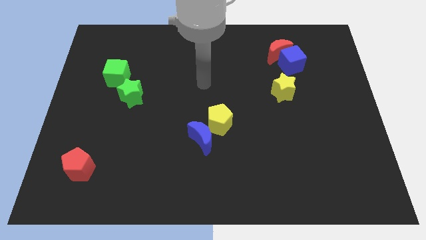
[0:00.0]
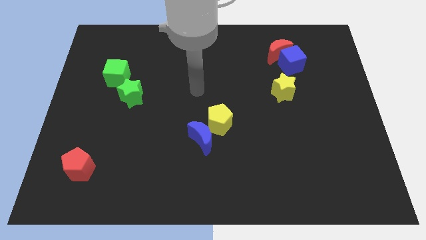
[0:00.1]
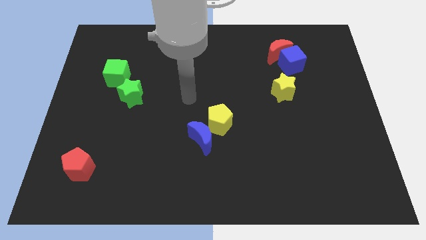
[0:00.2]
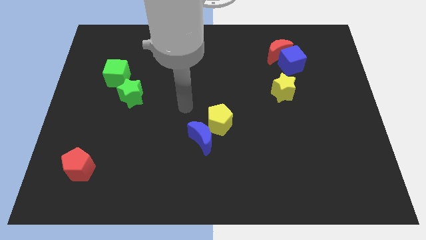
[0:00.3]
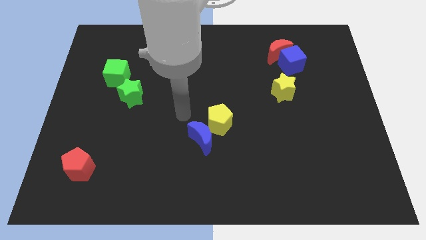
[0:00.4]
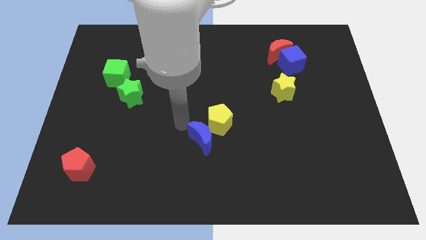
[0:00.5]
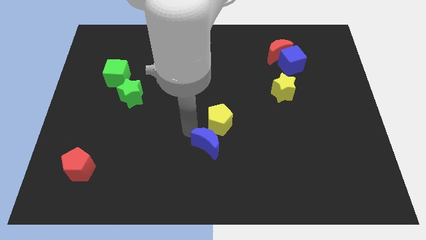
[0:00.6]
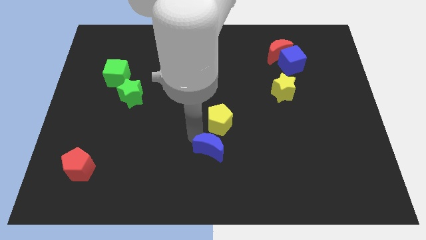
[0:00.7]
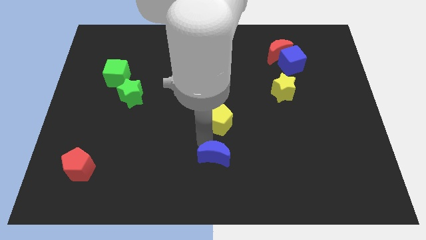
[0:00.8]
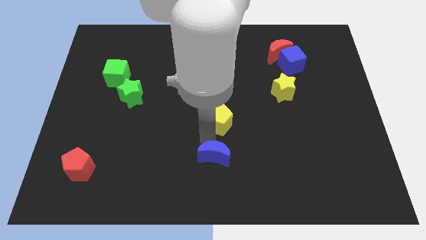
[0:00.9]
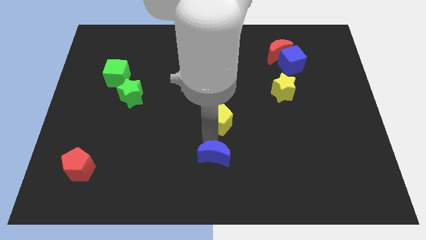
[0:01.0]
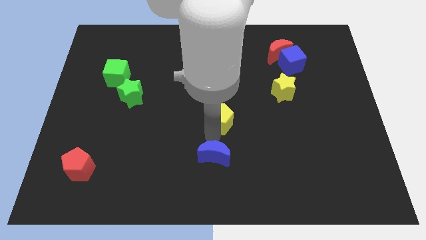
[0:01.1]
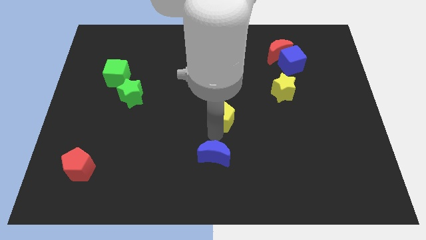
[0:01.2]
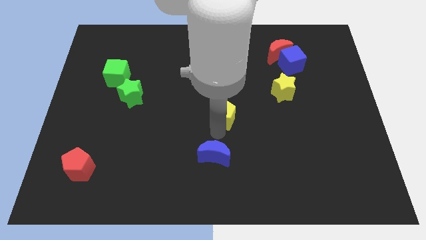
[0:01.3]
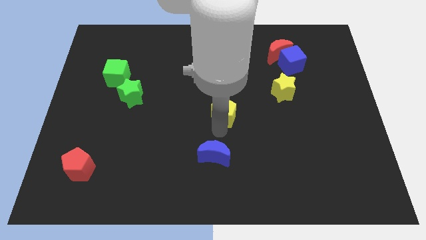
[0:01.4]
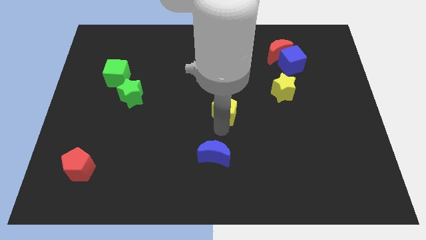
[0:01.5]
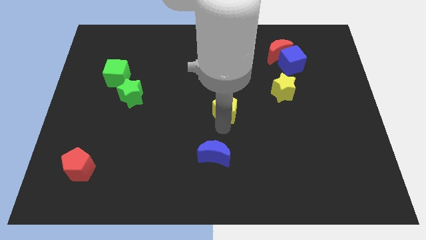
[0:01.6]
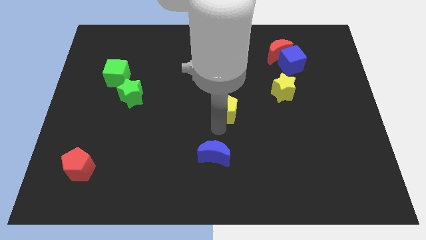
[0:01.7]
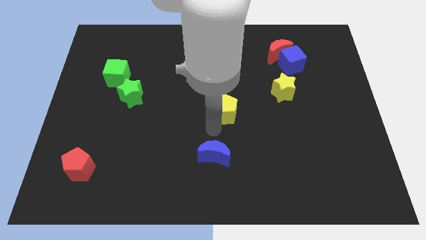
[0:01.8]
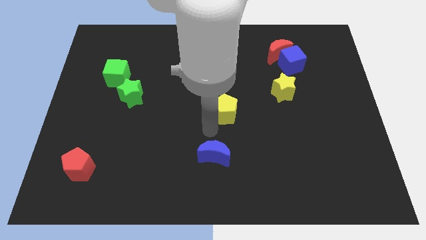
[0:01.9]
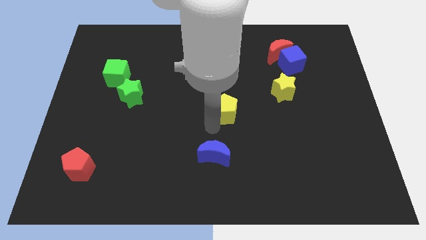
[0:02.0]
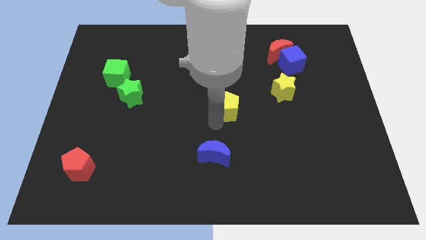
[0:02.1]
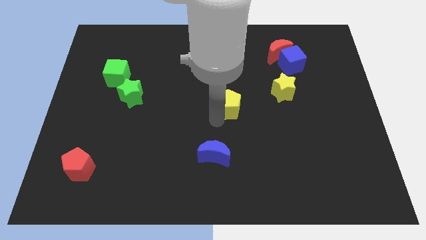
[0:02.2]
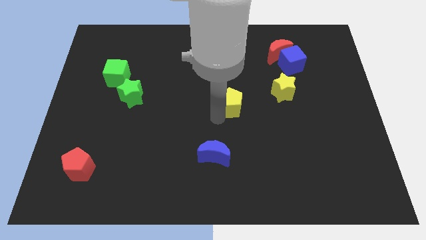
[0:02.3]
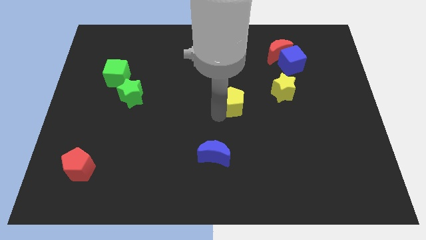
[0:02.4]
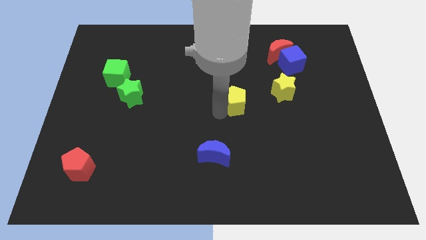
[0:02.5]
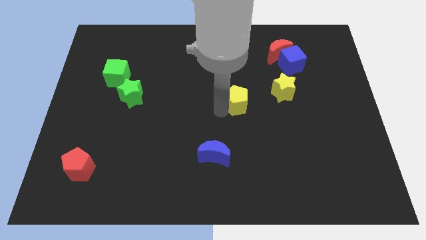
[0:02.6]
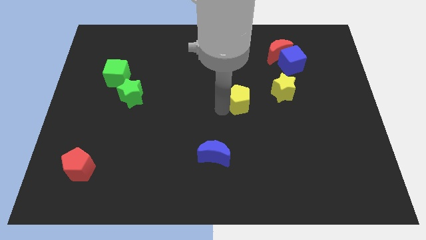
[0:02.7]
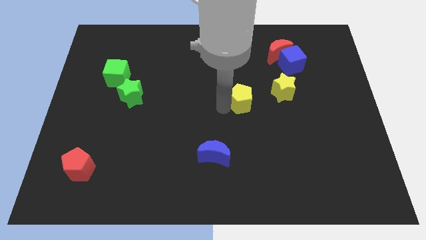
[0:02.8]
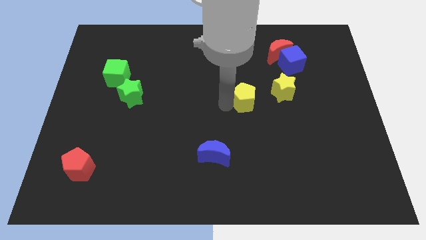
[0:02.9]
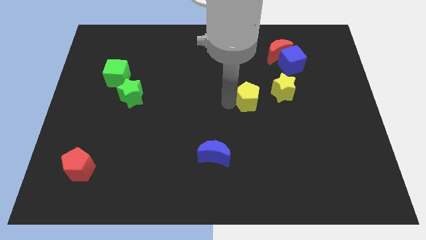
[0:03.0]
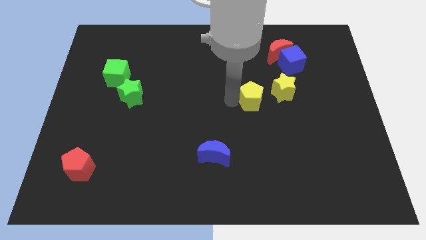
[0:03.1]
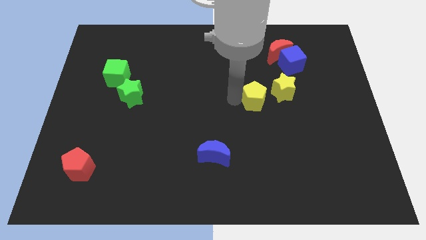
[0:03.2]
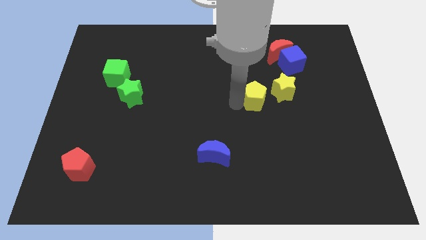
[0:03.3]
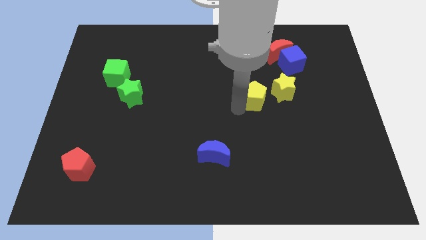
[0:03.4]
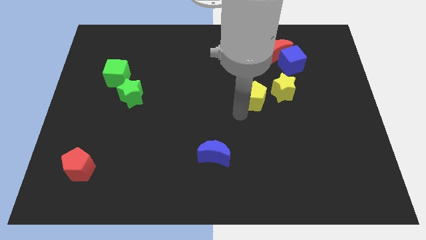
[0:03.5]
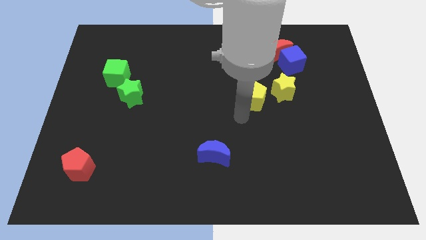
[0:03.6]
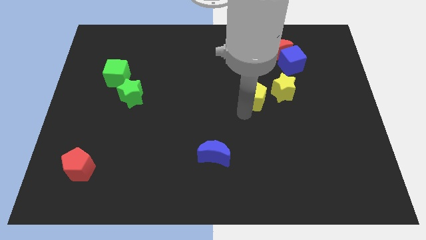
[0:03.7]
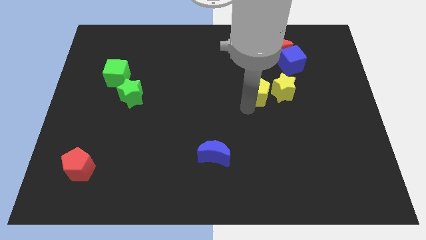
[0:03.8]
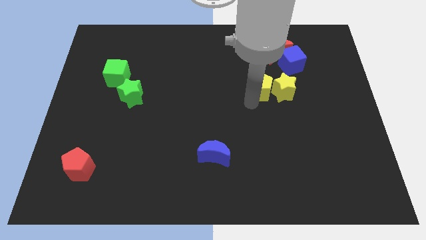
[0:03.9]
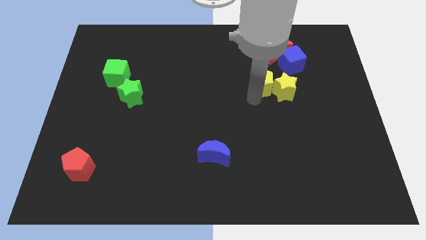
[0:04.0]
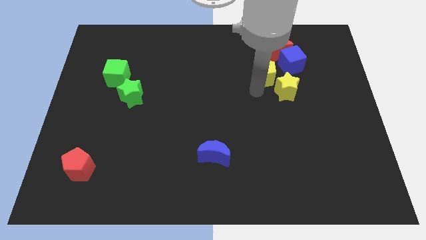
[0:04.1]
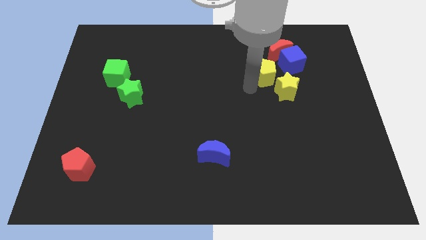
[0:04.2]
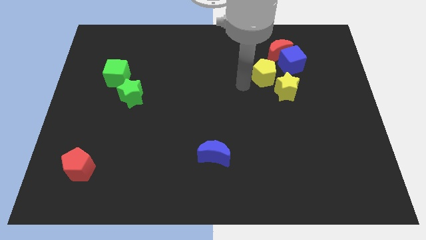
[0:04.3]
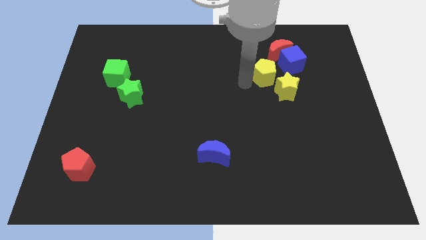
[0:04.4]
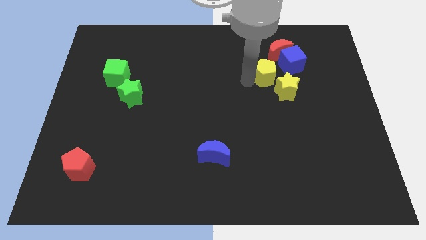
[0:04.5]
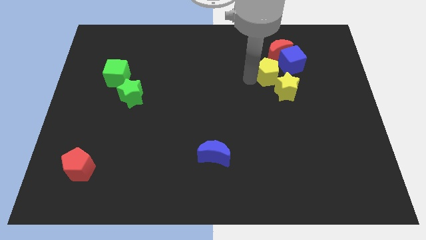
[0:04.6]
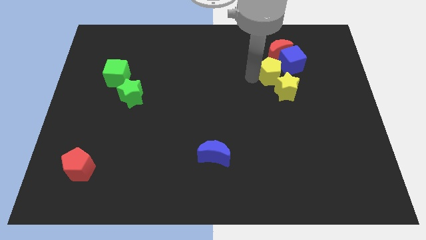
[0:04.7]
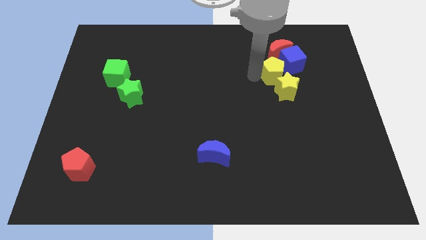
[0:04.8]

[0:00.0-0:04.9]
push the yellow pentagon to the blue cube

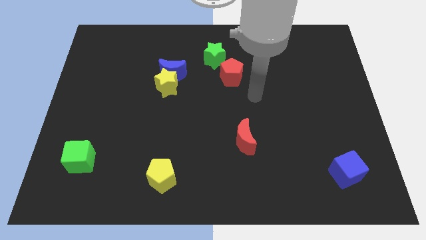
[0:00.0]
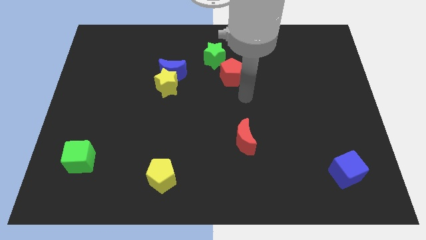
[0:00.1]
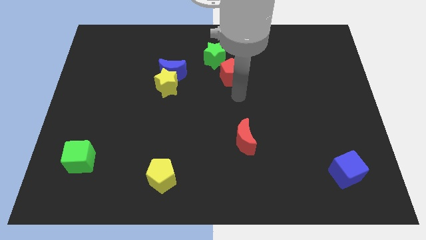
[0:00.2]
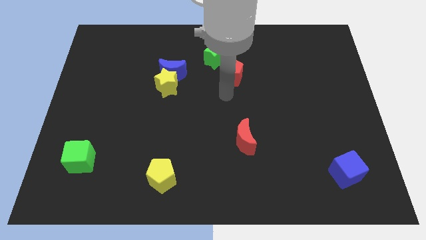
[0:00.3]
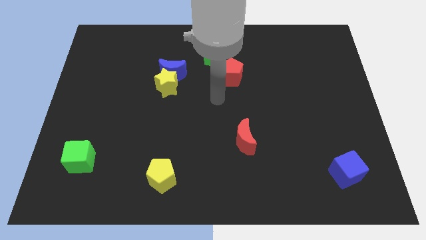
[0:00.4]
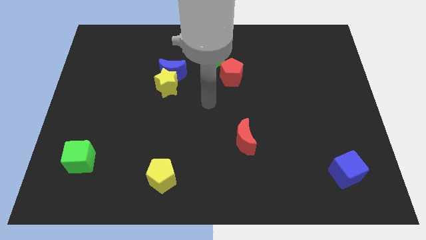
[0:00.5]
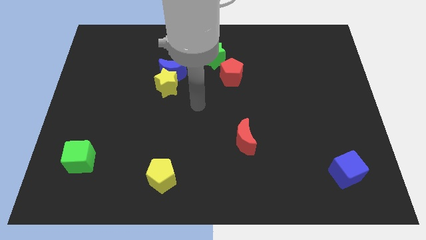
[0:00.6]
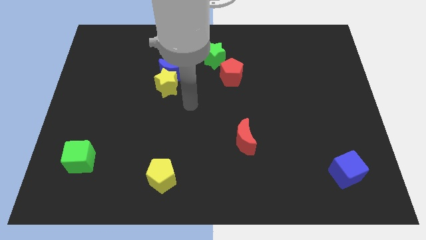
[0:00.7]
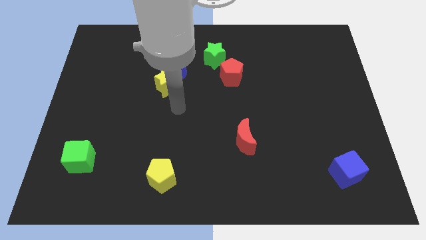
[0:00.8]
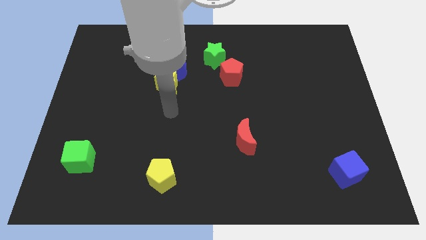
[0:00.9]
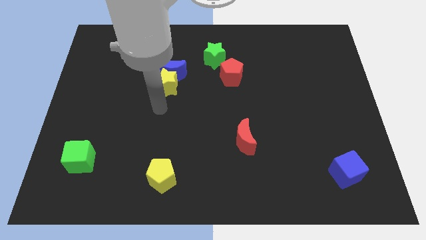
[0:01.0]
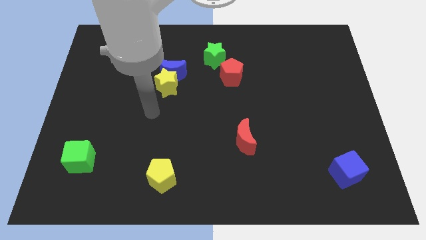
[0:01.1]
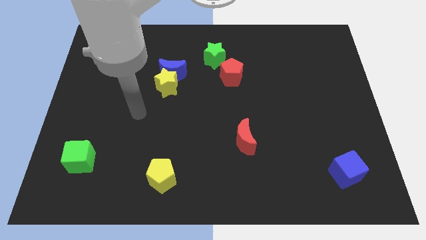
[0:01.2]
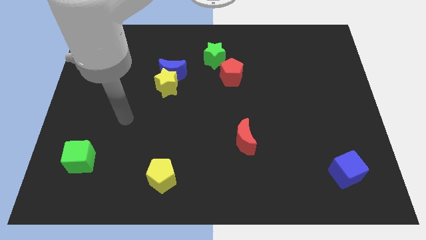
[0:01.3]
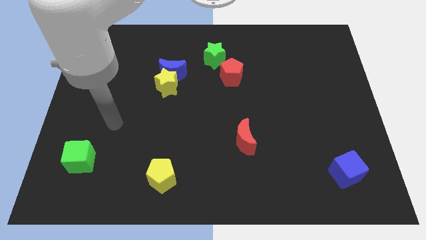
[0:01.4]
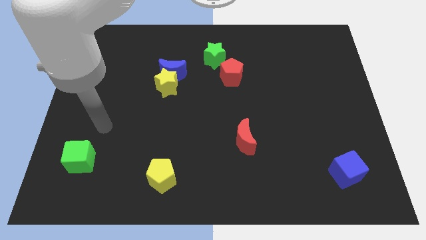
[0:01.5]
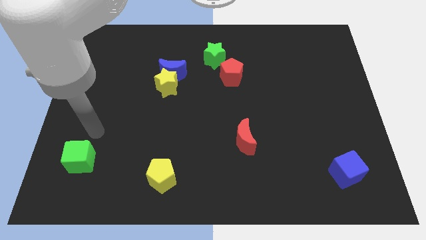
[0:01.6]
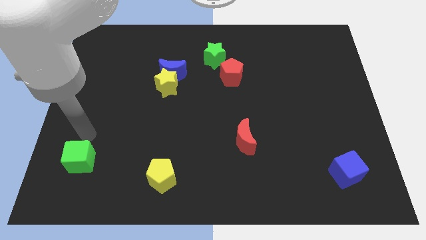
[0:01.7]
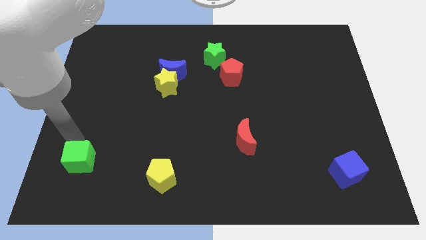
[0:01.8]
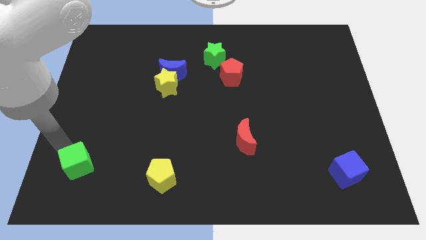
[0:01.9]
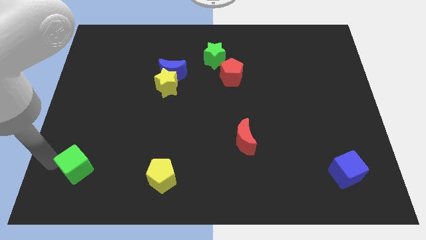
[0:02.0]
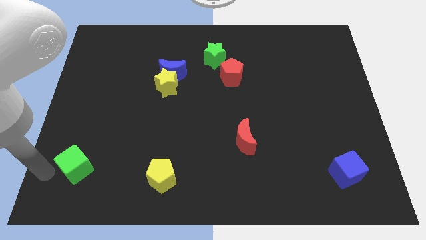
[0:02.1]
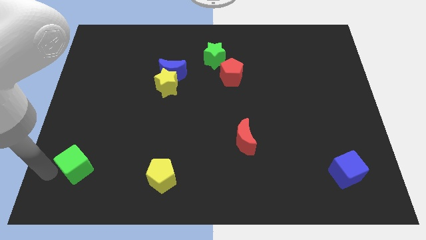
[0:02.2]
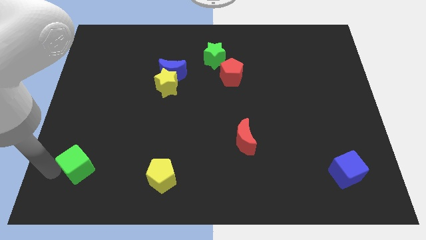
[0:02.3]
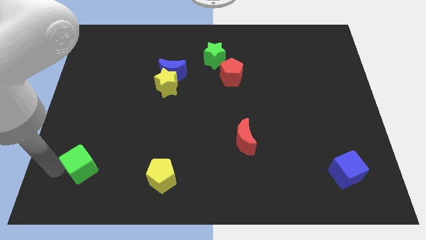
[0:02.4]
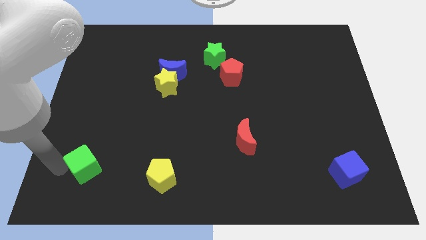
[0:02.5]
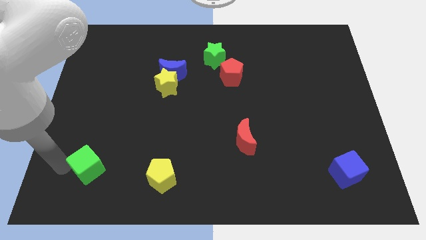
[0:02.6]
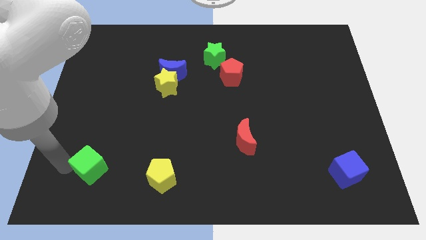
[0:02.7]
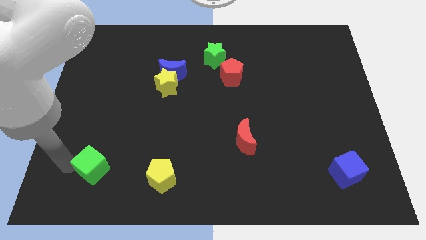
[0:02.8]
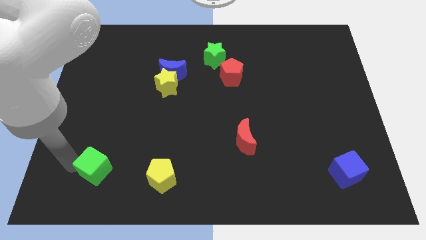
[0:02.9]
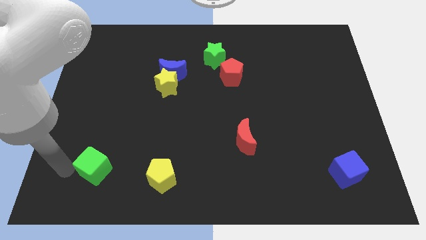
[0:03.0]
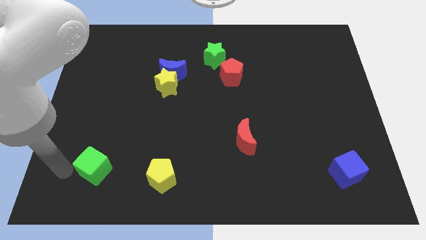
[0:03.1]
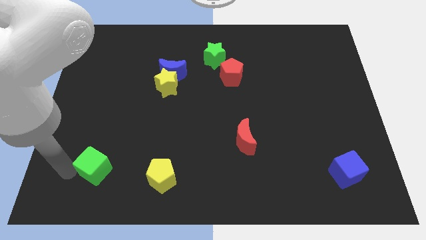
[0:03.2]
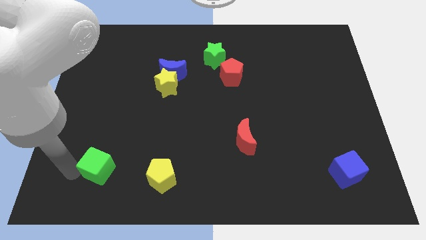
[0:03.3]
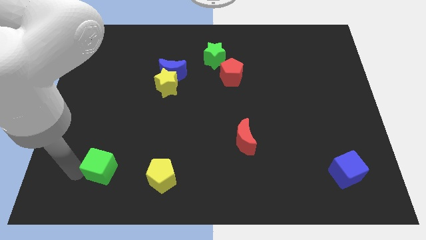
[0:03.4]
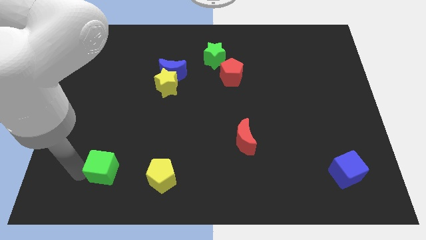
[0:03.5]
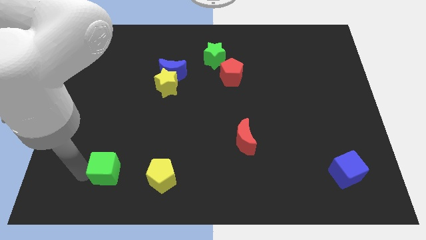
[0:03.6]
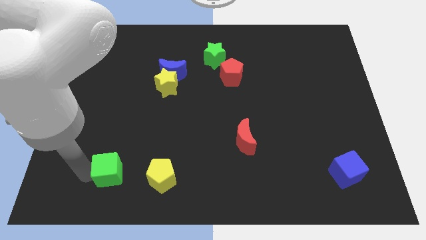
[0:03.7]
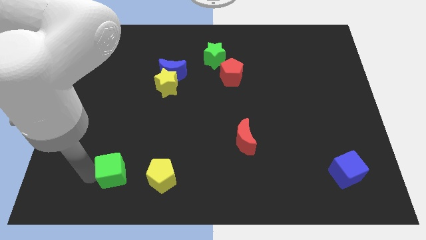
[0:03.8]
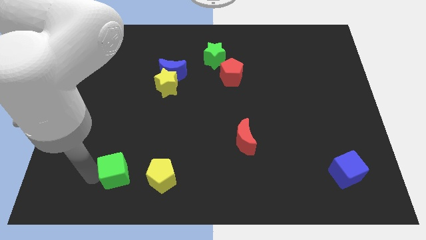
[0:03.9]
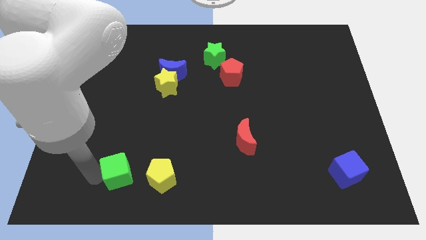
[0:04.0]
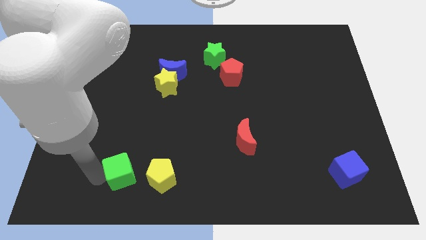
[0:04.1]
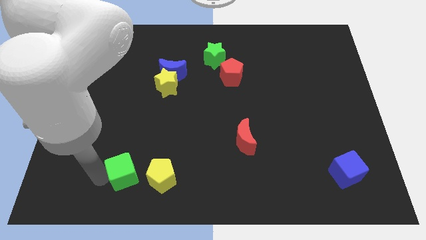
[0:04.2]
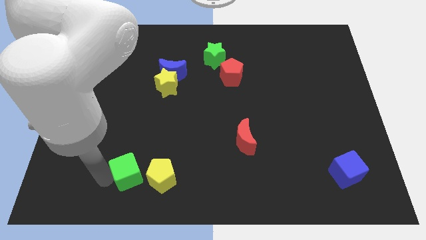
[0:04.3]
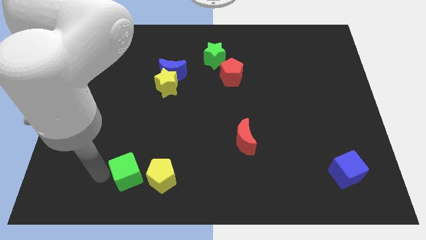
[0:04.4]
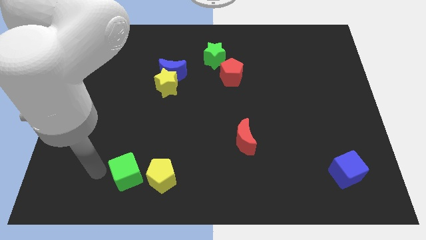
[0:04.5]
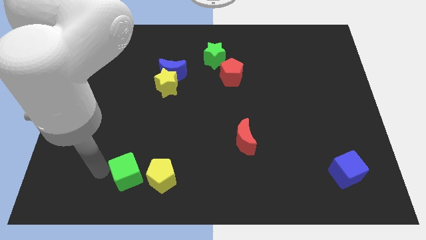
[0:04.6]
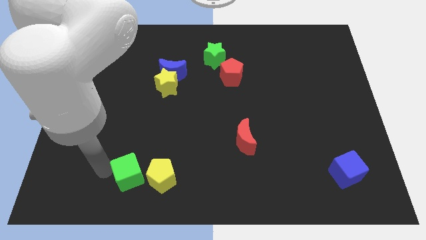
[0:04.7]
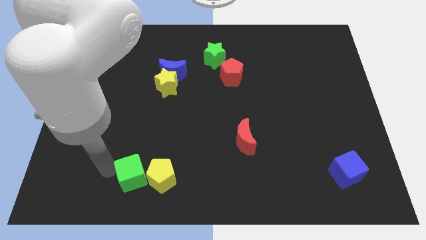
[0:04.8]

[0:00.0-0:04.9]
move the green cube close to the yellow pentagon
